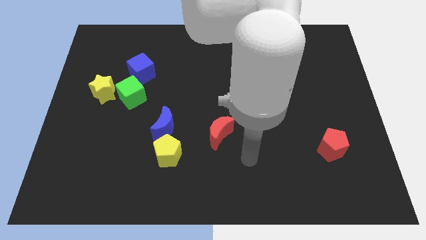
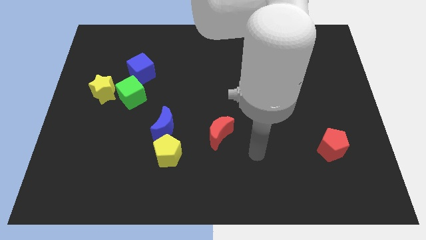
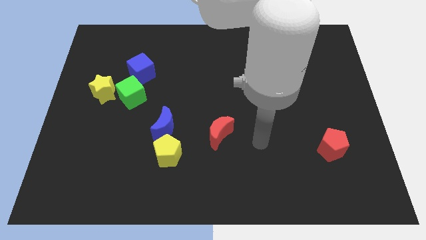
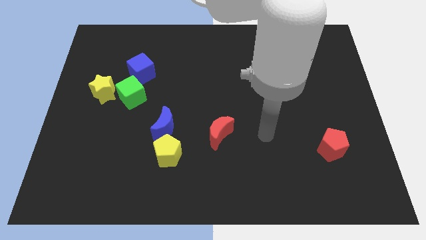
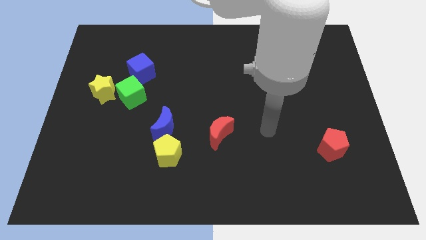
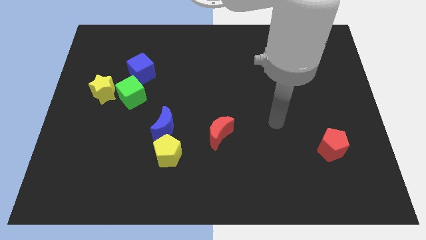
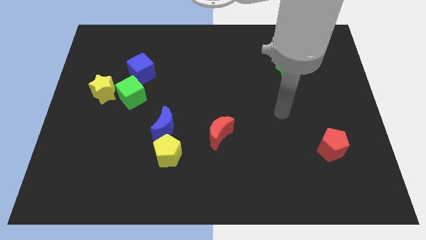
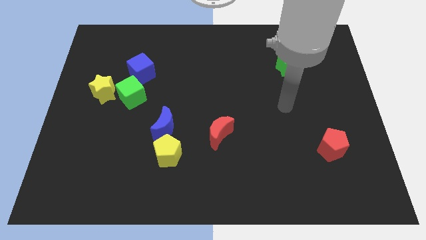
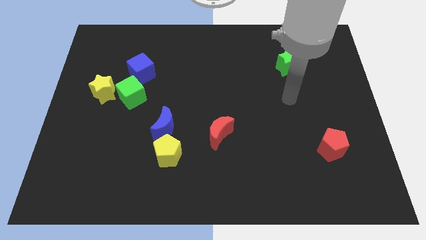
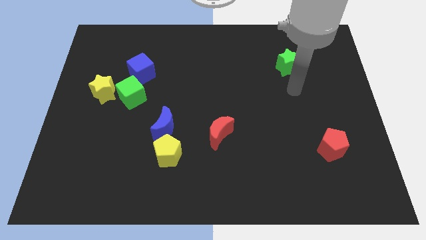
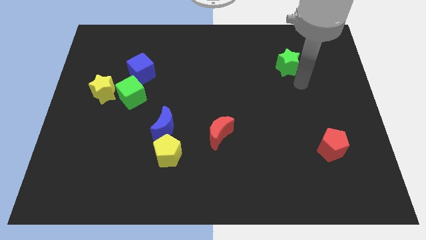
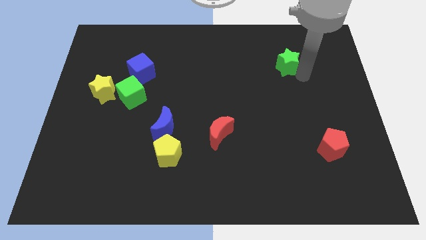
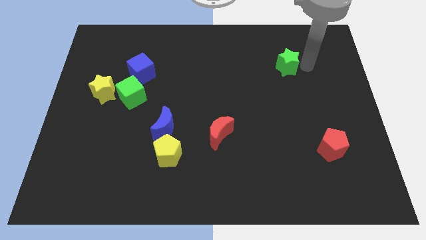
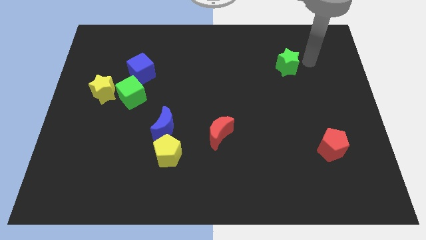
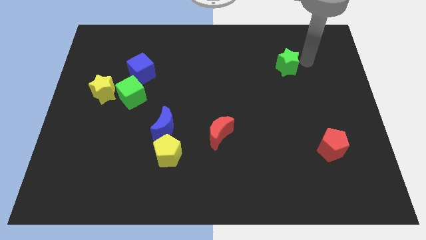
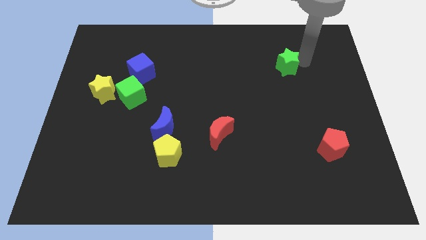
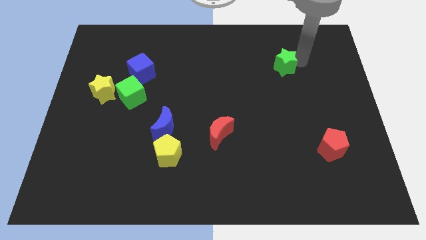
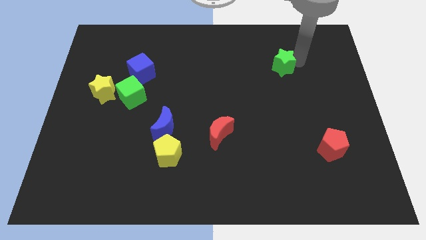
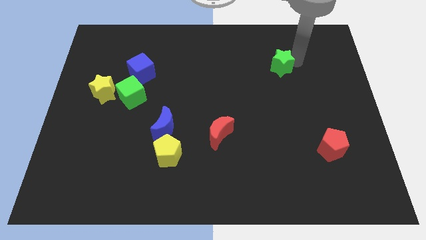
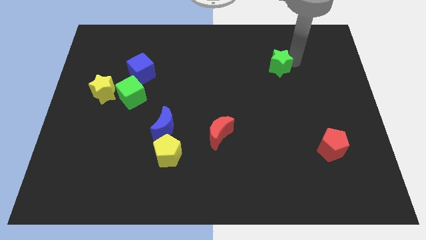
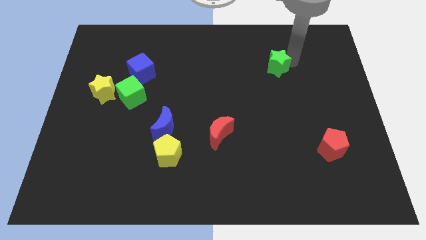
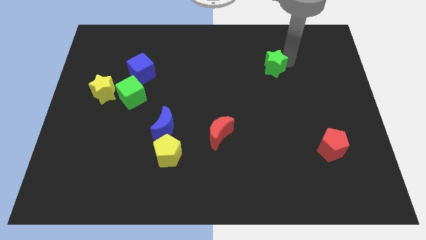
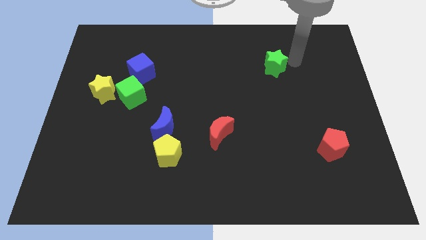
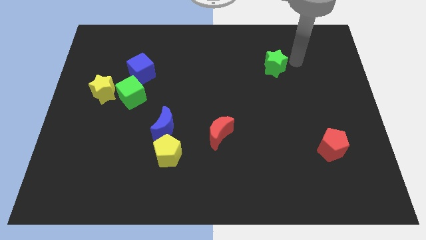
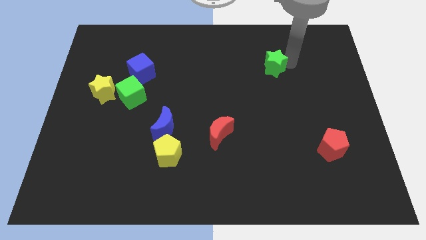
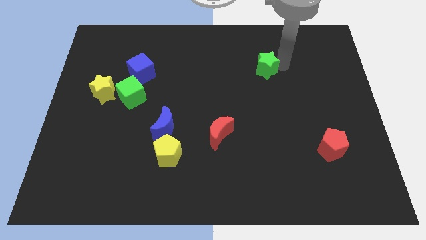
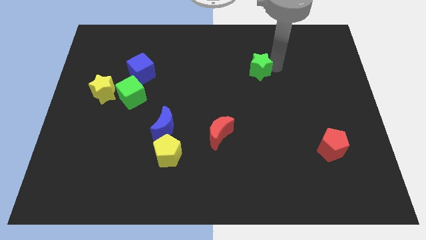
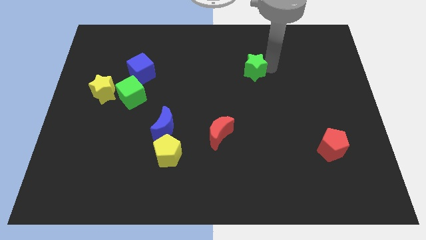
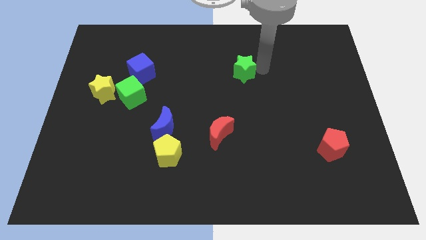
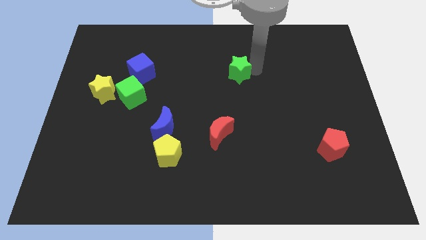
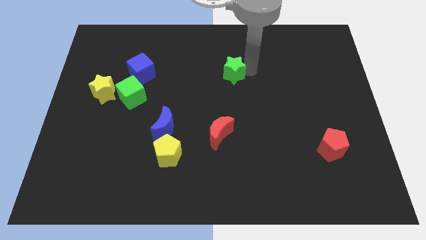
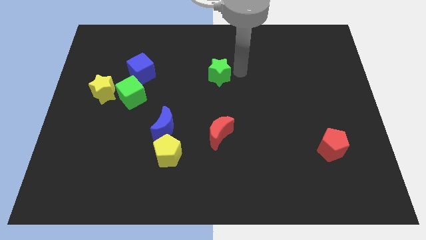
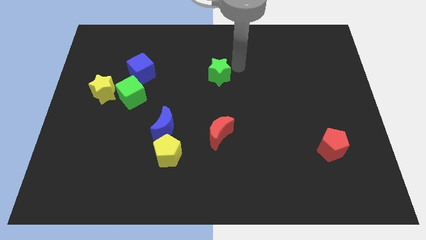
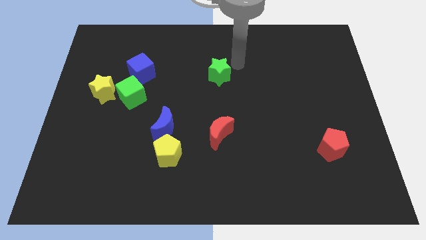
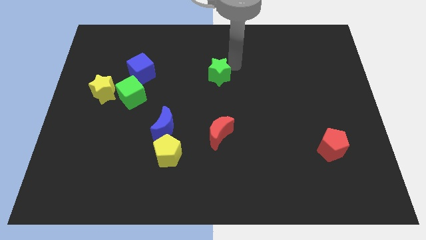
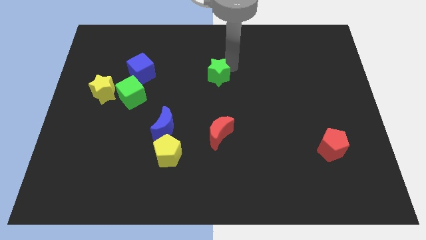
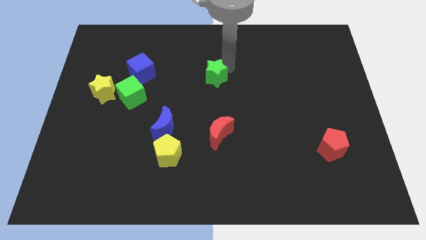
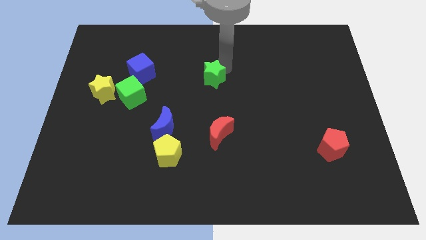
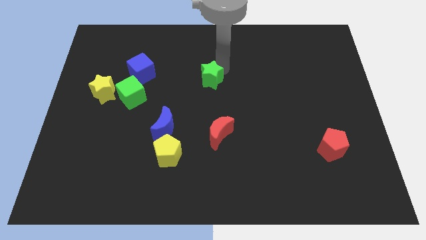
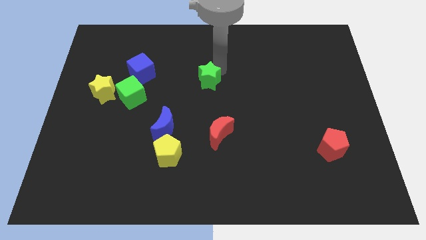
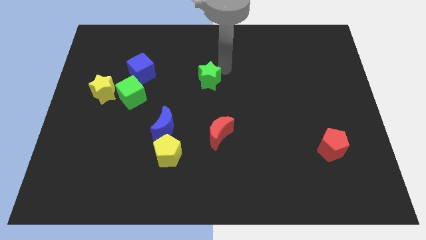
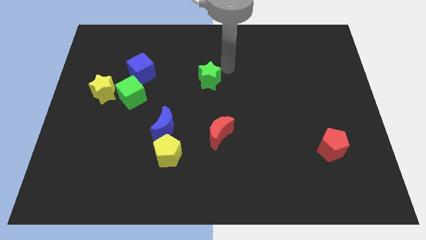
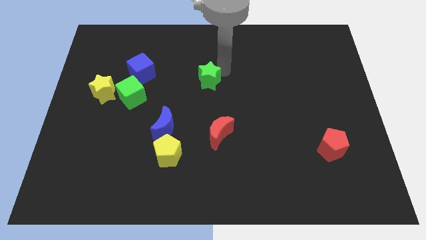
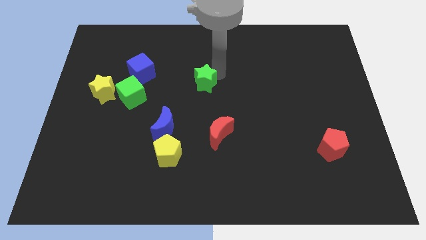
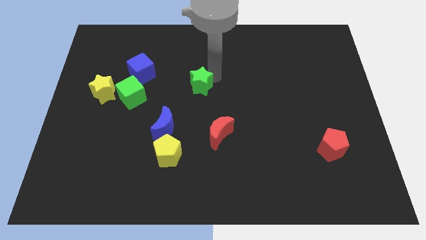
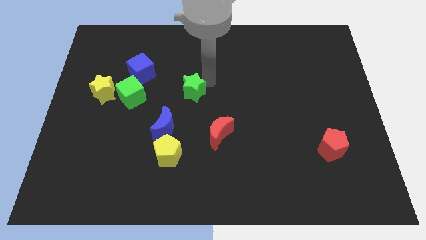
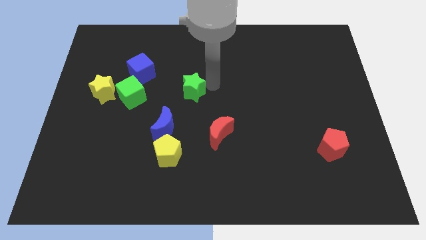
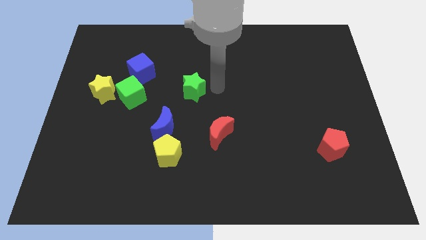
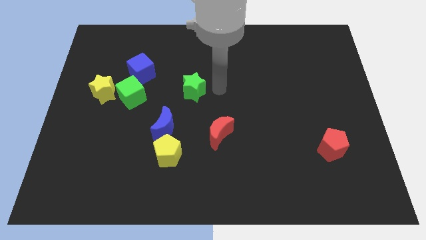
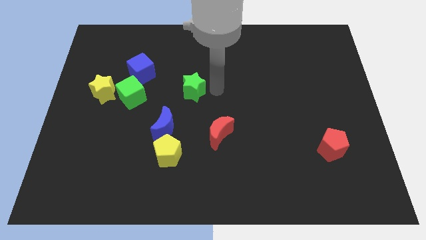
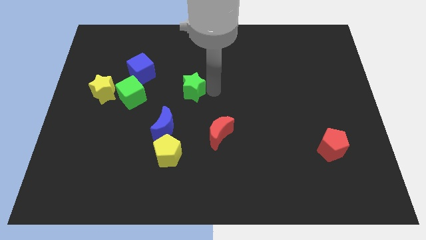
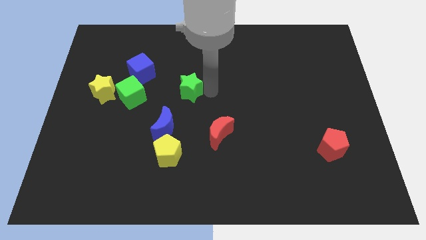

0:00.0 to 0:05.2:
put the green star to the top side of the blue moon

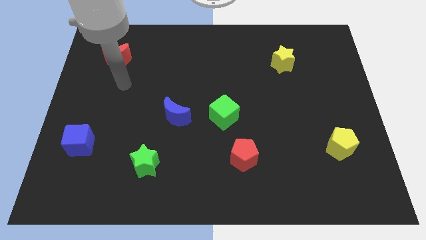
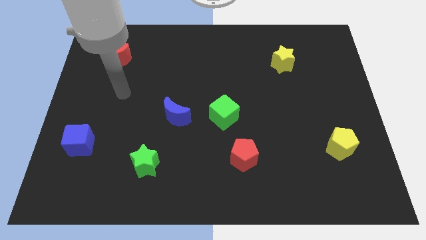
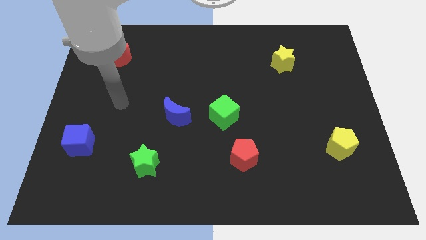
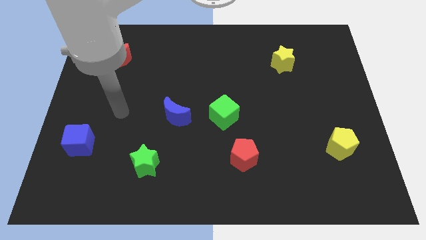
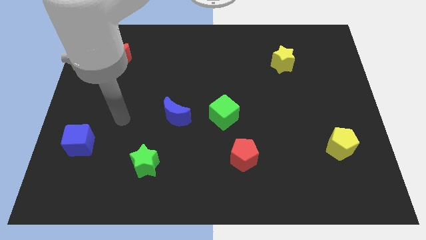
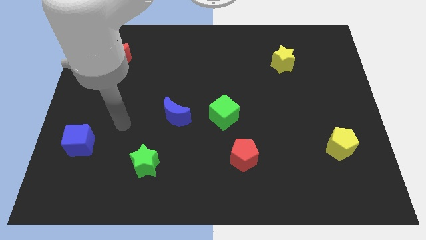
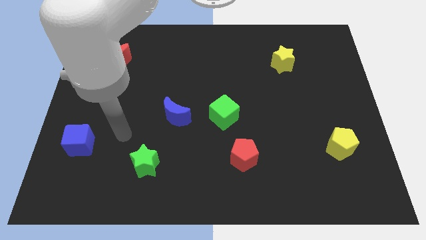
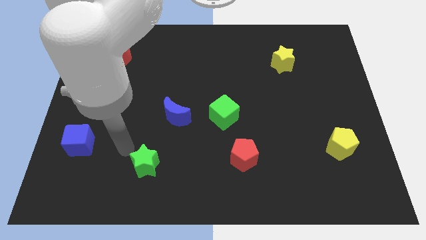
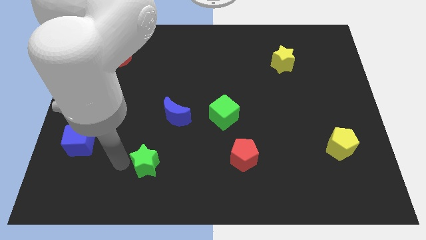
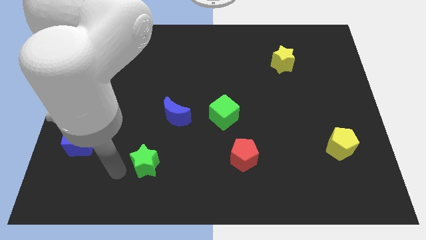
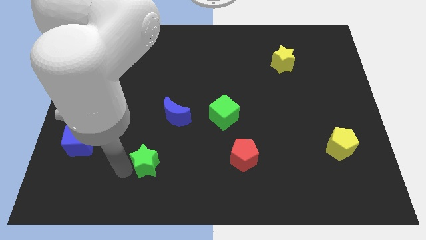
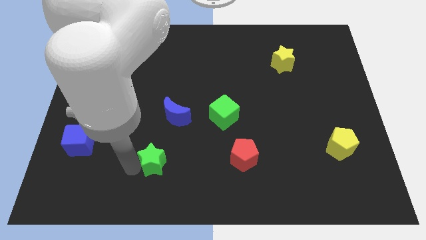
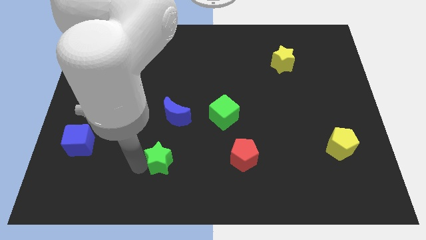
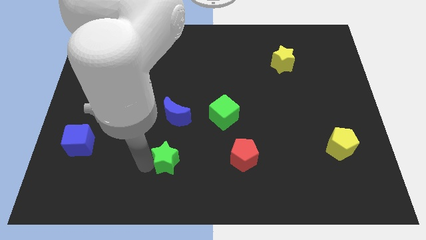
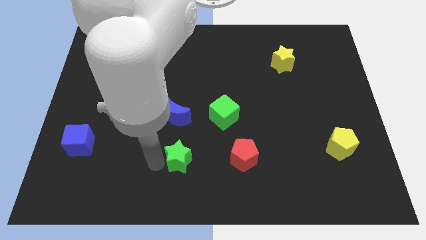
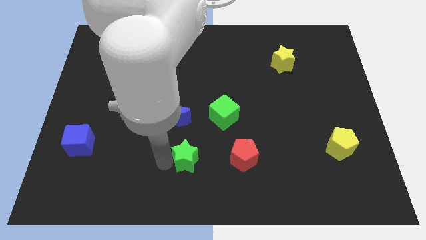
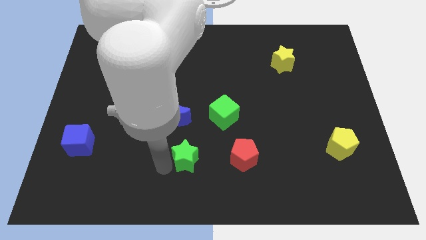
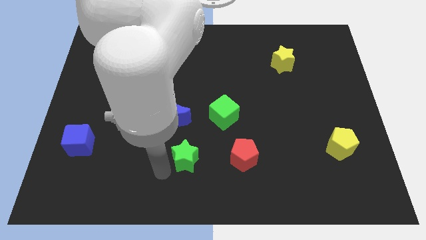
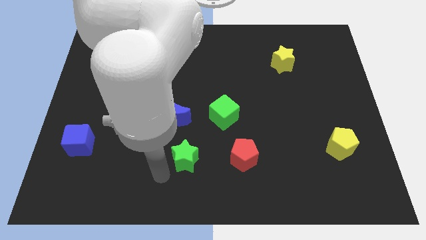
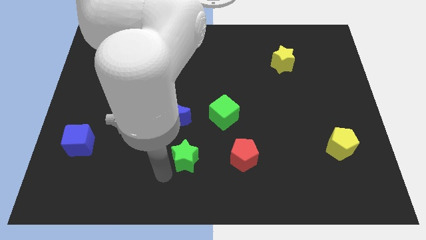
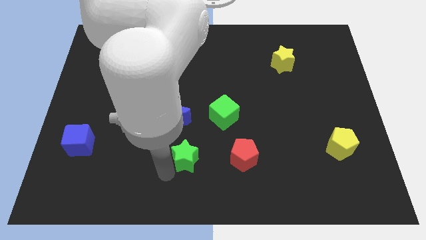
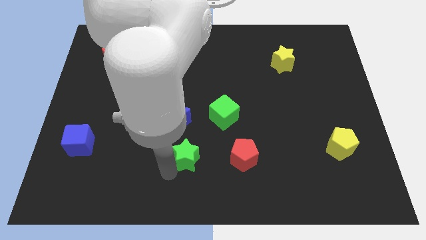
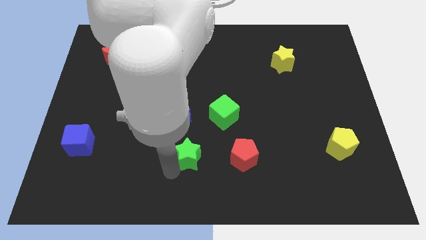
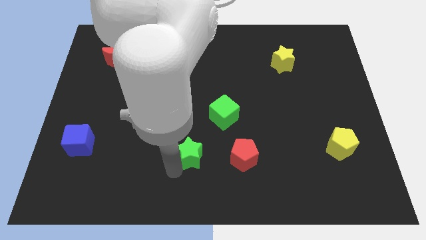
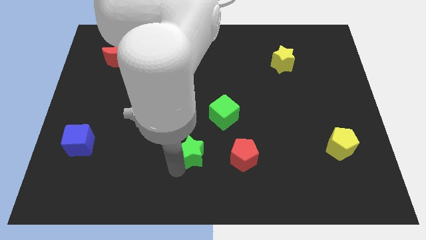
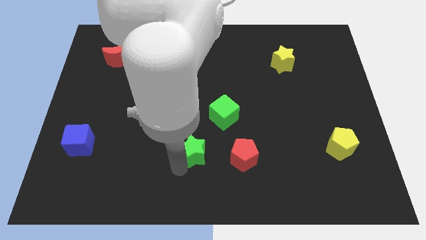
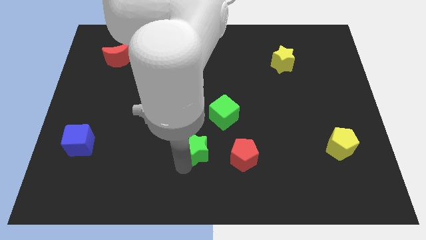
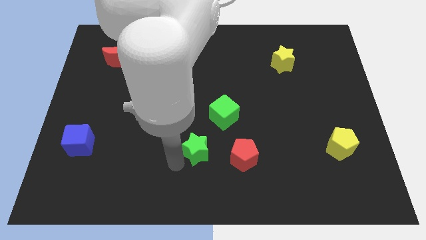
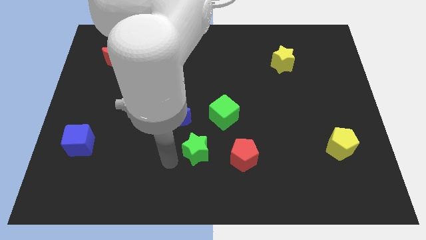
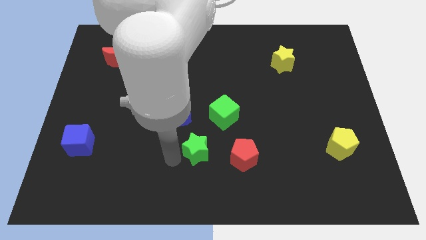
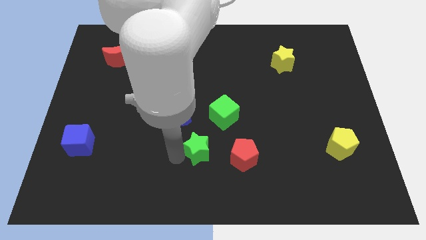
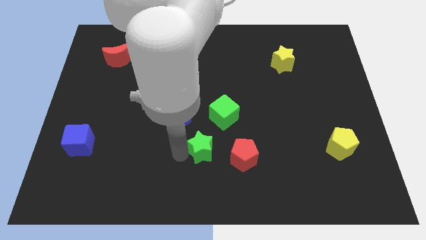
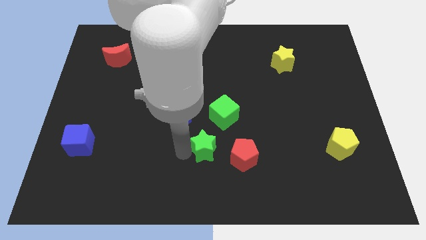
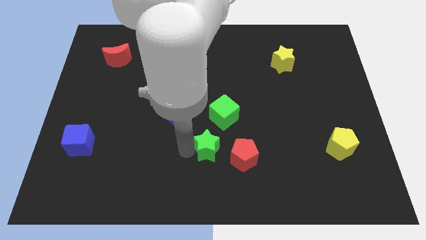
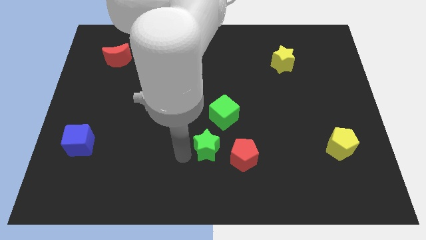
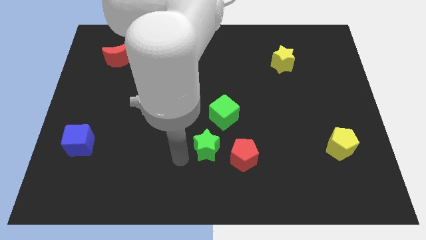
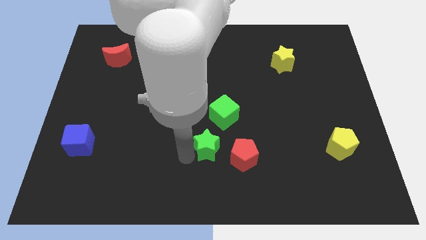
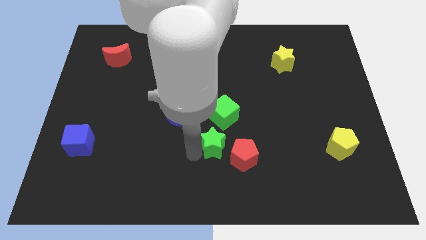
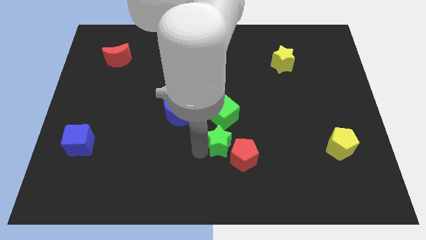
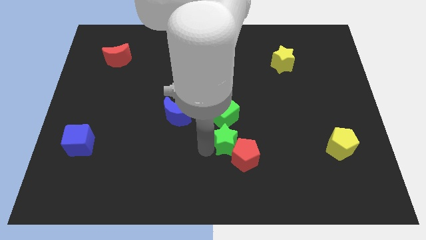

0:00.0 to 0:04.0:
slide the green star diagonally down and to the right of the green cube
